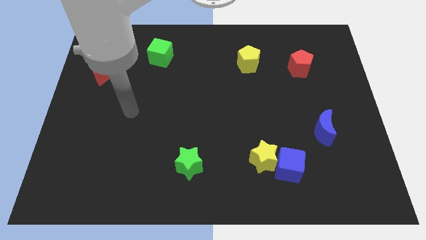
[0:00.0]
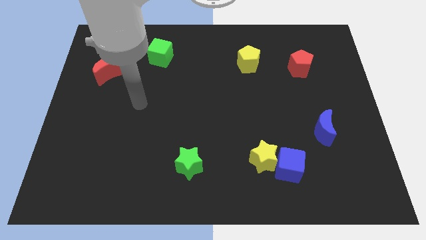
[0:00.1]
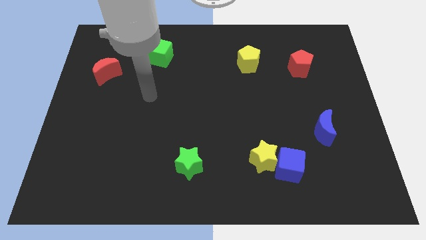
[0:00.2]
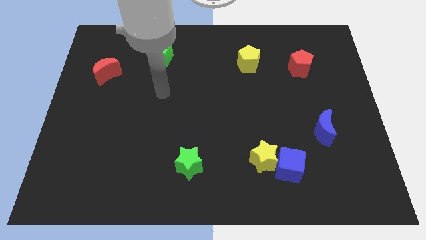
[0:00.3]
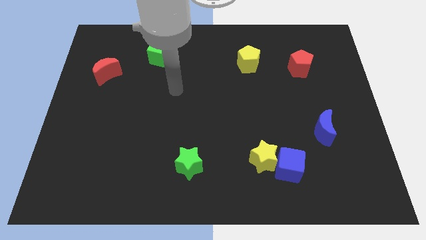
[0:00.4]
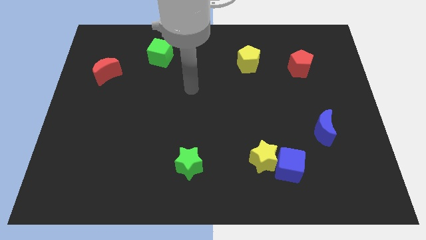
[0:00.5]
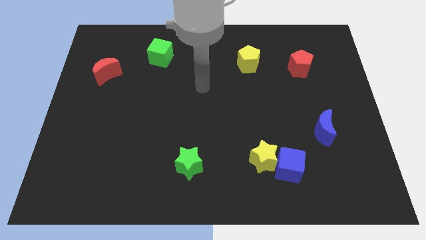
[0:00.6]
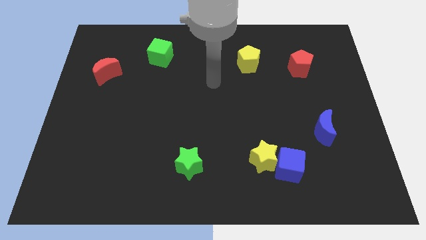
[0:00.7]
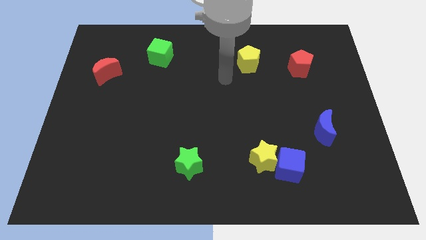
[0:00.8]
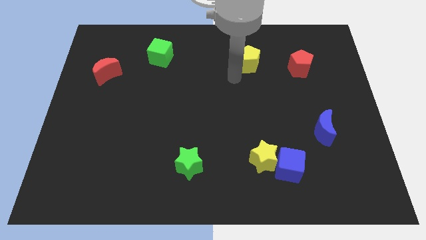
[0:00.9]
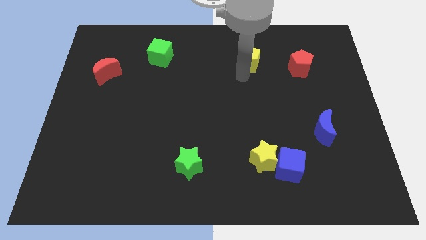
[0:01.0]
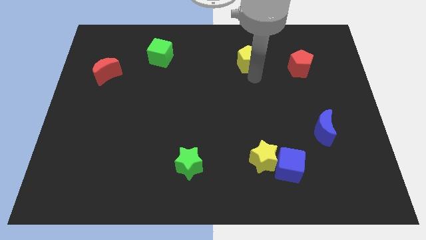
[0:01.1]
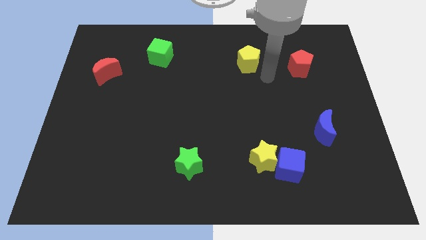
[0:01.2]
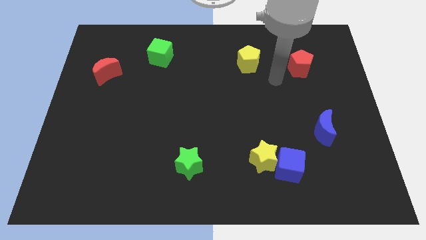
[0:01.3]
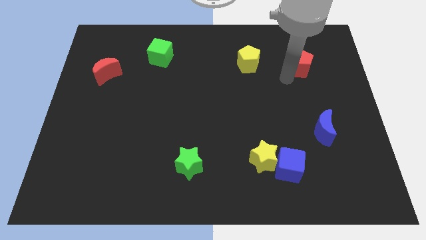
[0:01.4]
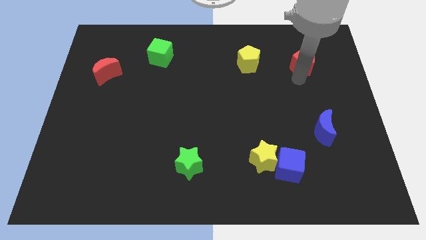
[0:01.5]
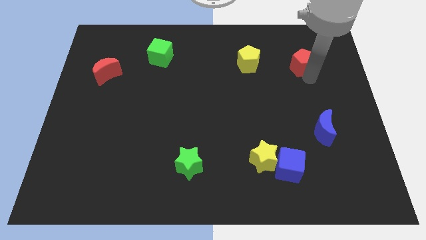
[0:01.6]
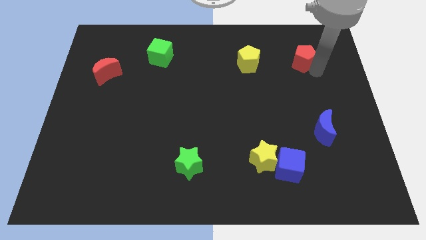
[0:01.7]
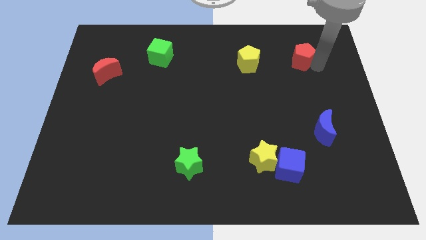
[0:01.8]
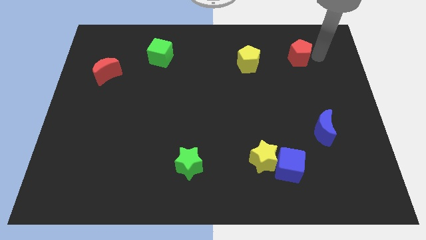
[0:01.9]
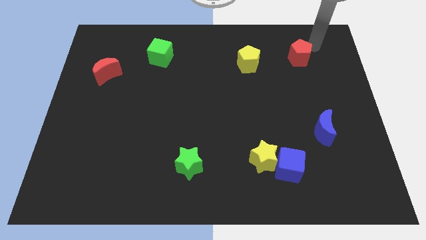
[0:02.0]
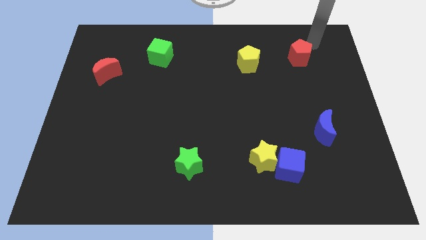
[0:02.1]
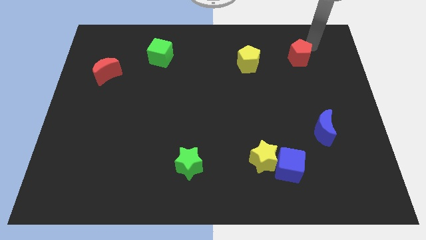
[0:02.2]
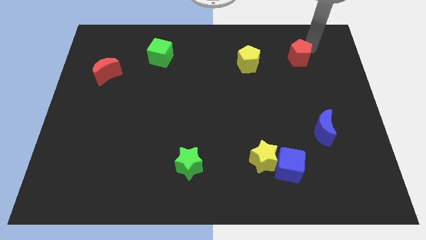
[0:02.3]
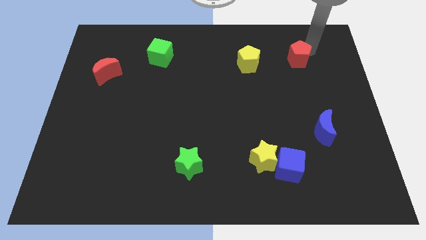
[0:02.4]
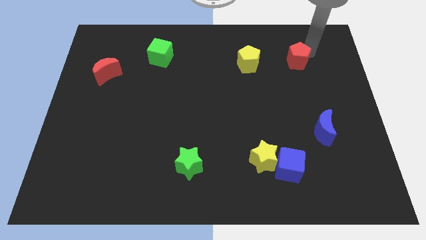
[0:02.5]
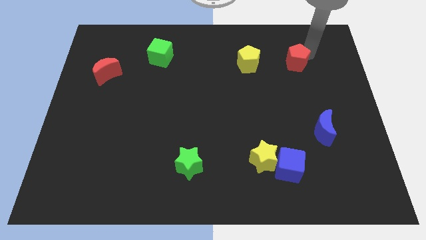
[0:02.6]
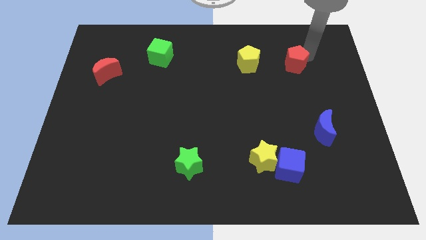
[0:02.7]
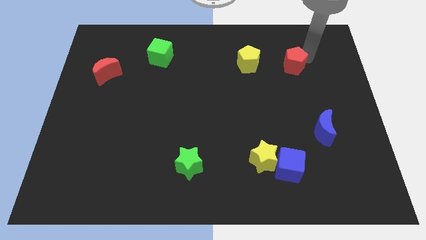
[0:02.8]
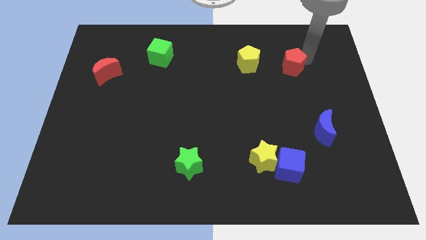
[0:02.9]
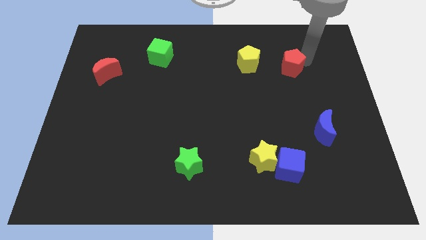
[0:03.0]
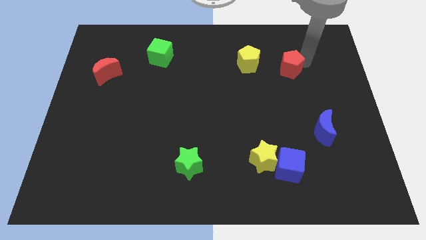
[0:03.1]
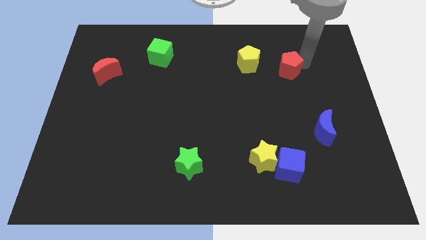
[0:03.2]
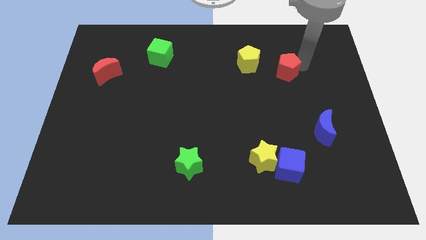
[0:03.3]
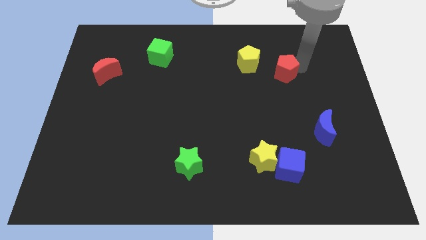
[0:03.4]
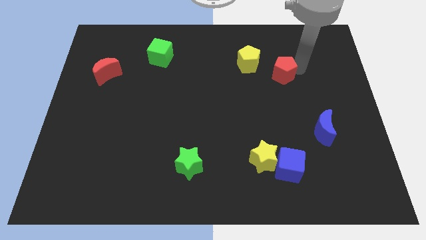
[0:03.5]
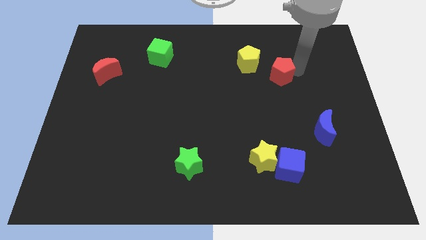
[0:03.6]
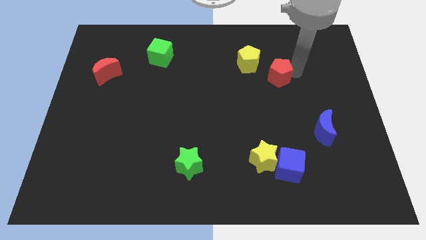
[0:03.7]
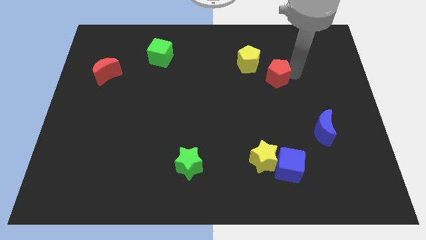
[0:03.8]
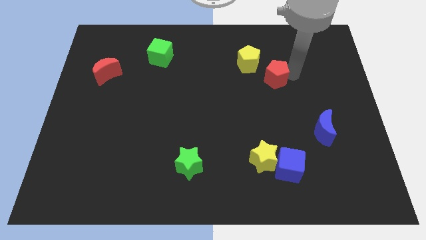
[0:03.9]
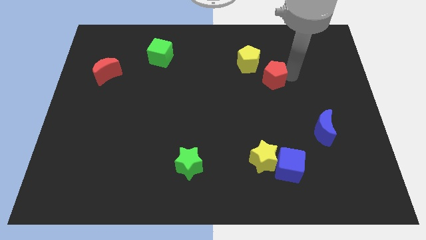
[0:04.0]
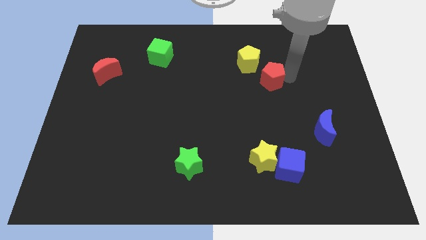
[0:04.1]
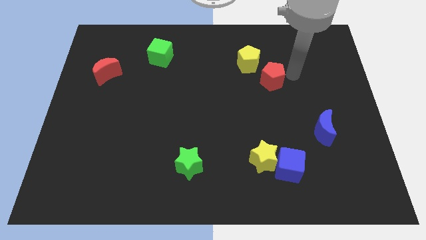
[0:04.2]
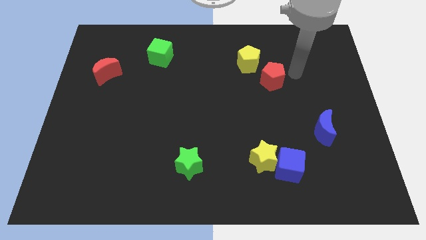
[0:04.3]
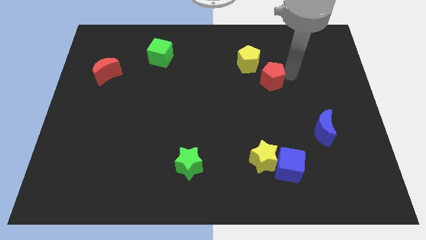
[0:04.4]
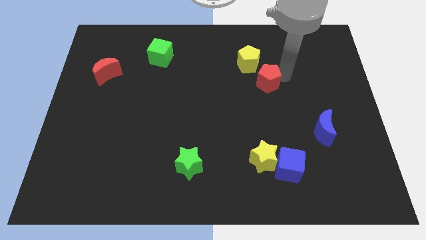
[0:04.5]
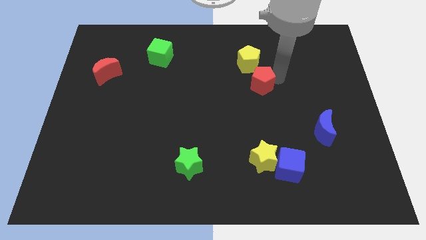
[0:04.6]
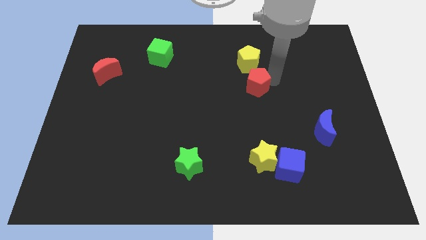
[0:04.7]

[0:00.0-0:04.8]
push the red pentagon to the center of the board

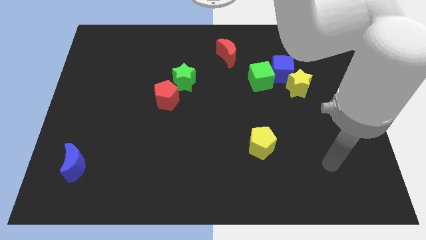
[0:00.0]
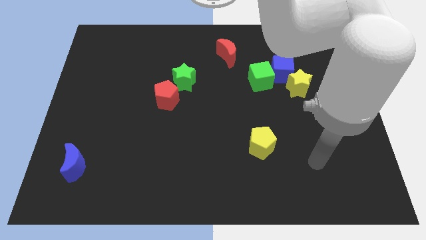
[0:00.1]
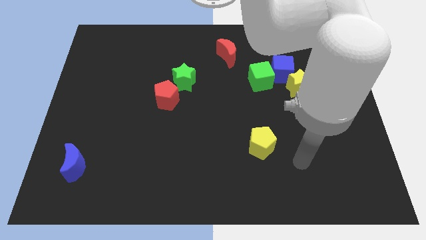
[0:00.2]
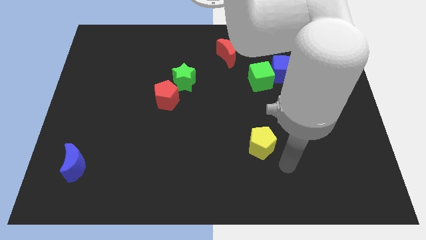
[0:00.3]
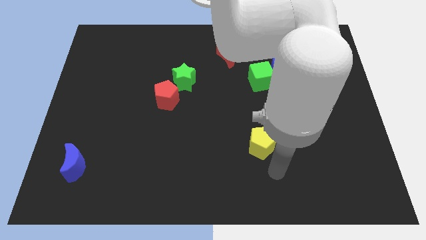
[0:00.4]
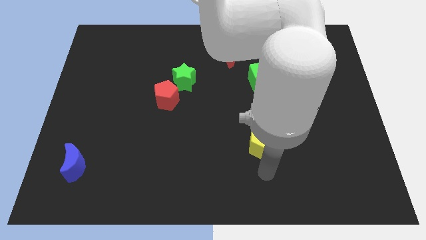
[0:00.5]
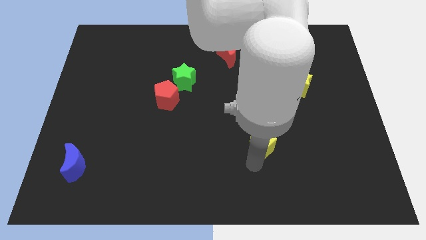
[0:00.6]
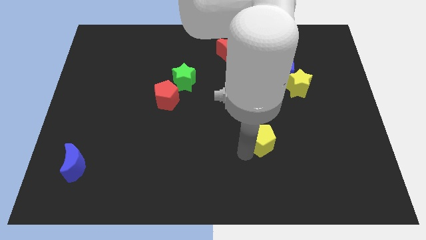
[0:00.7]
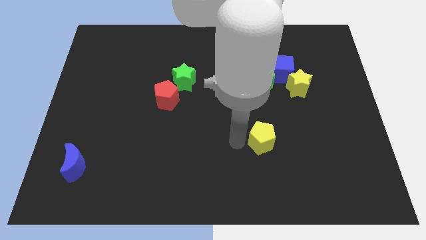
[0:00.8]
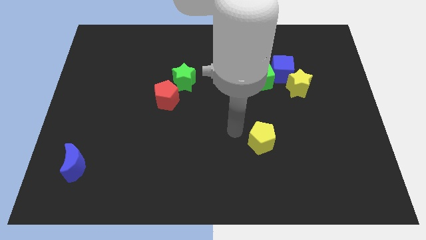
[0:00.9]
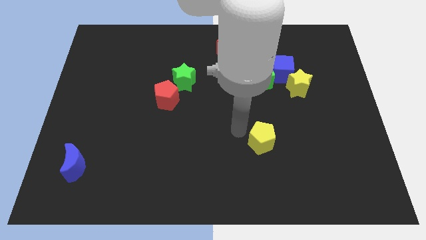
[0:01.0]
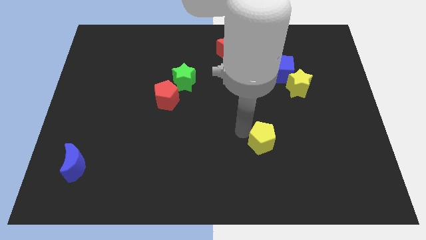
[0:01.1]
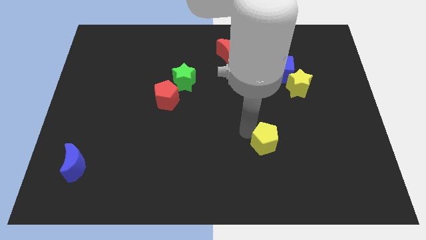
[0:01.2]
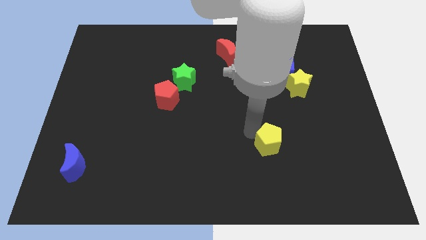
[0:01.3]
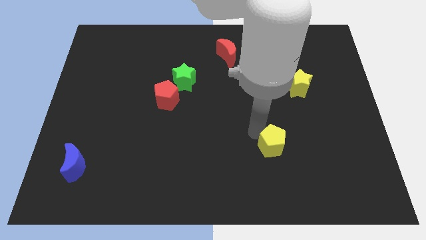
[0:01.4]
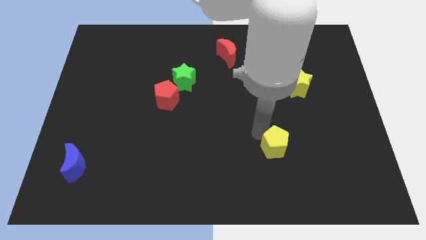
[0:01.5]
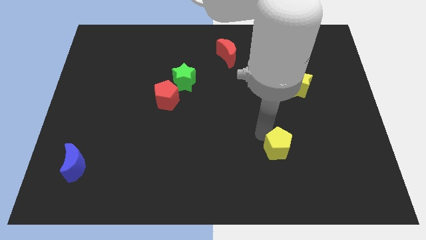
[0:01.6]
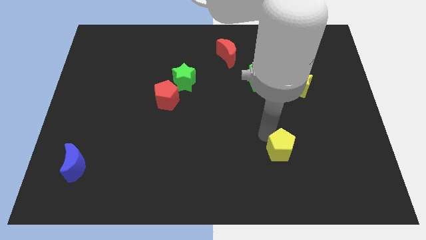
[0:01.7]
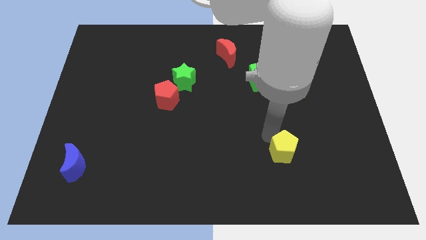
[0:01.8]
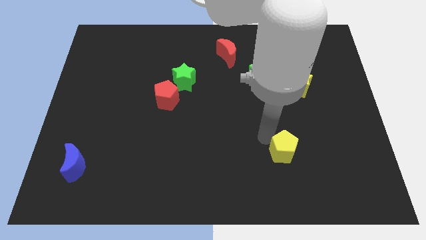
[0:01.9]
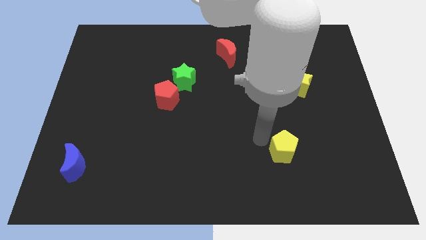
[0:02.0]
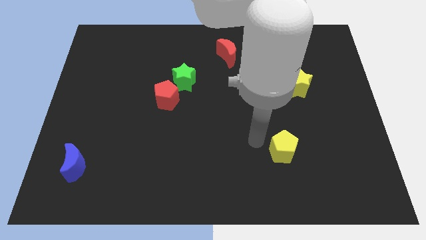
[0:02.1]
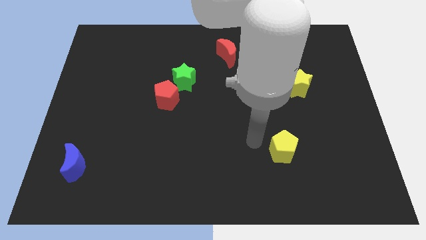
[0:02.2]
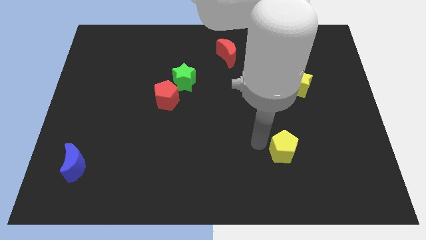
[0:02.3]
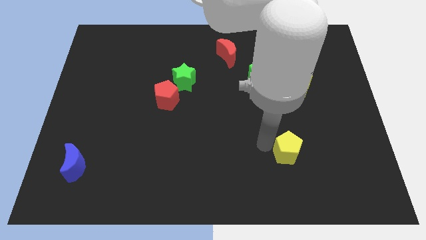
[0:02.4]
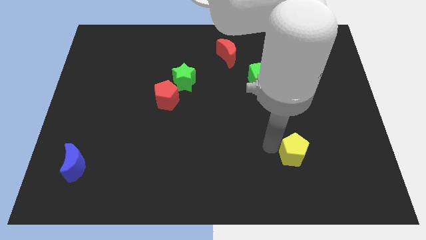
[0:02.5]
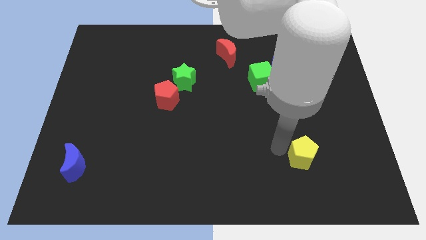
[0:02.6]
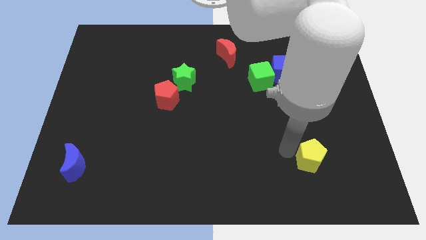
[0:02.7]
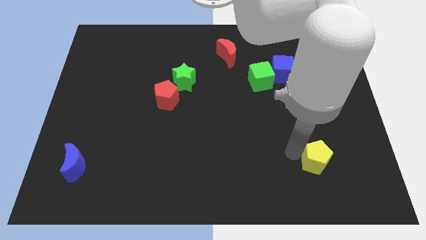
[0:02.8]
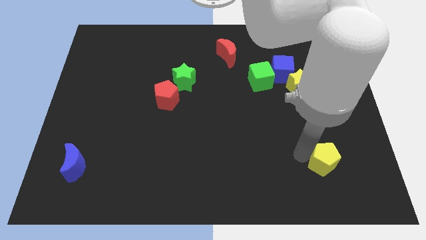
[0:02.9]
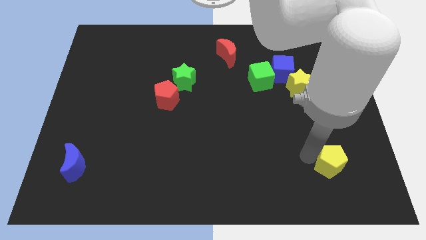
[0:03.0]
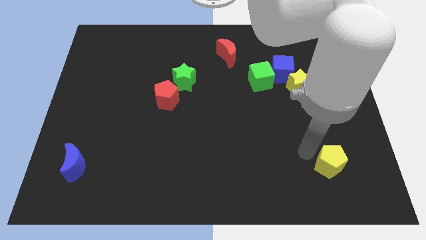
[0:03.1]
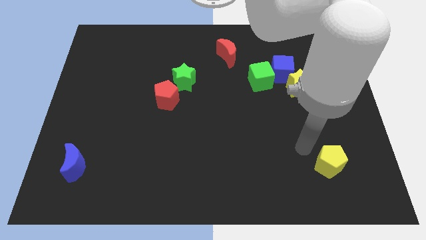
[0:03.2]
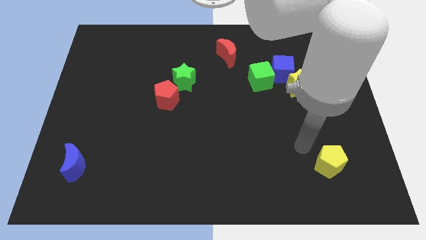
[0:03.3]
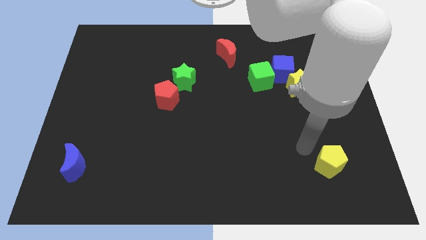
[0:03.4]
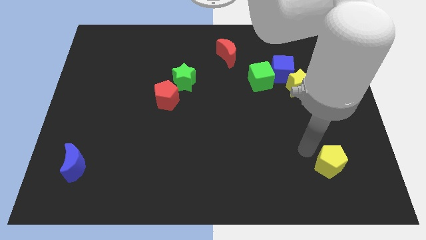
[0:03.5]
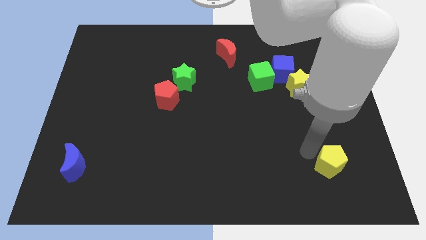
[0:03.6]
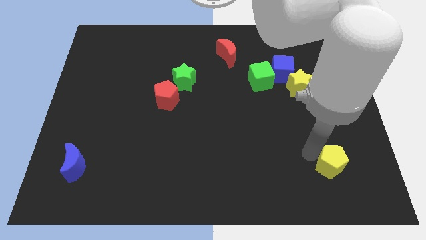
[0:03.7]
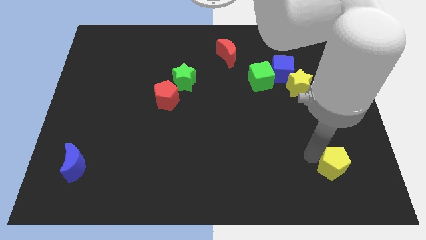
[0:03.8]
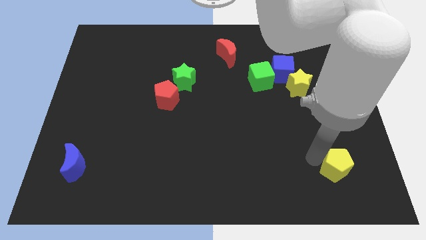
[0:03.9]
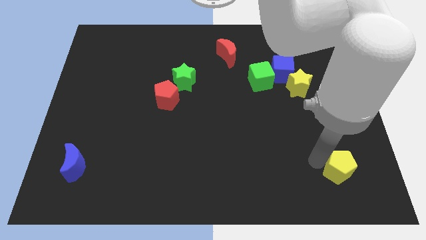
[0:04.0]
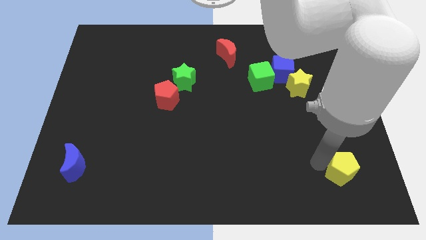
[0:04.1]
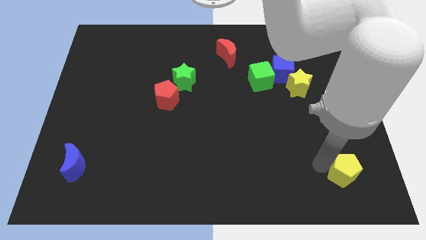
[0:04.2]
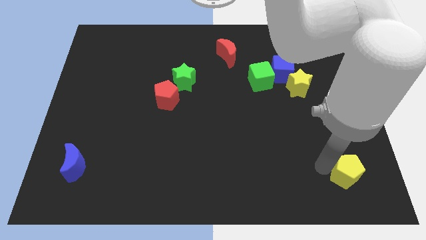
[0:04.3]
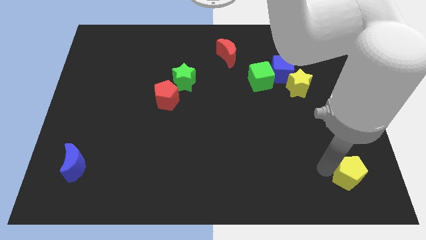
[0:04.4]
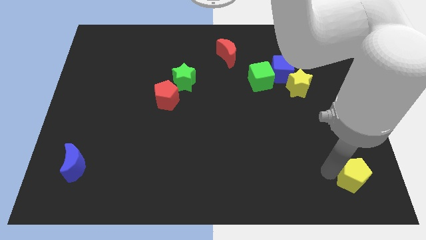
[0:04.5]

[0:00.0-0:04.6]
push the yellow pentagon to the bottom right
